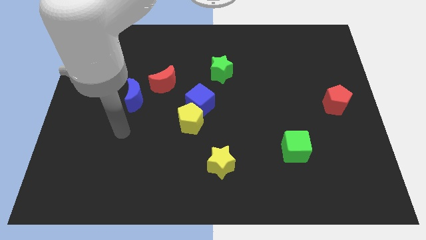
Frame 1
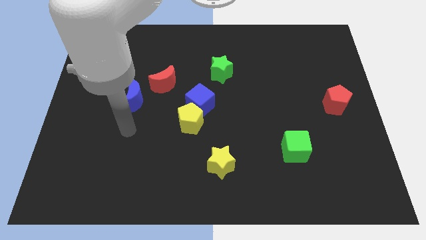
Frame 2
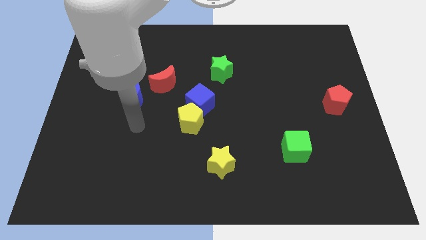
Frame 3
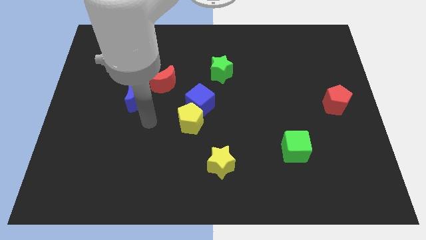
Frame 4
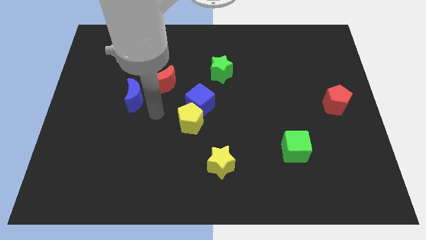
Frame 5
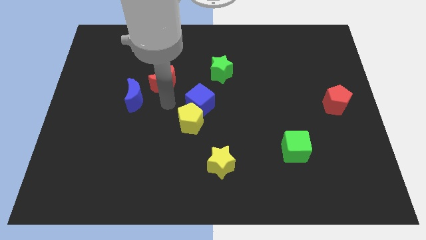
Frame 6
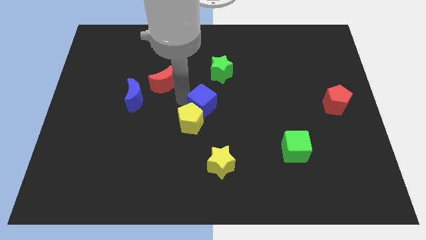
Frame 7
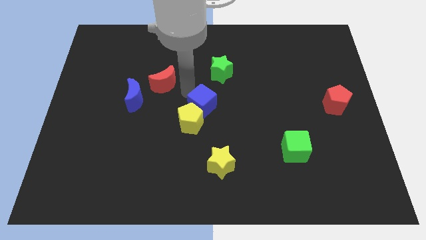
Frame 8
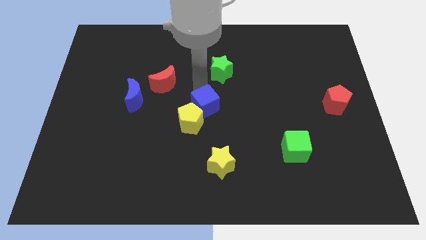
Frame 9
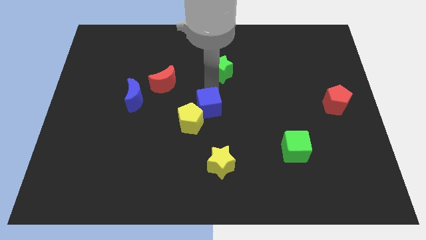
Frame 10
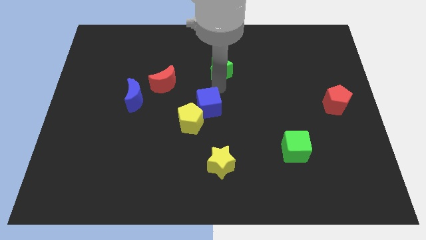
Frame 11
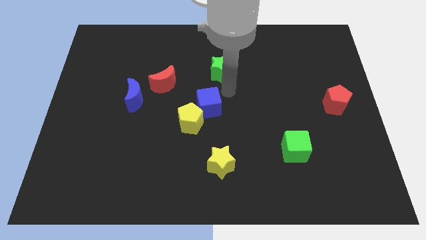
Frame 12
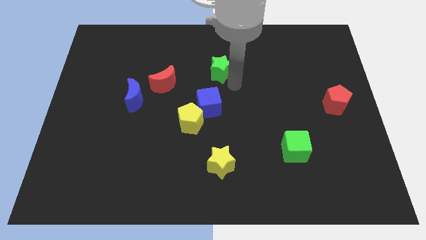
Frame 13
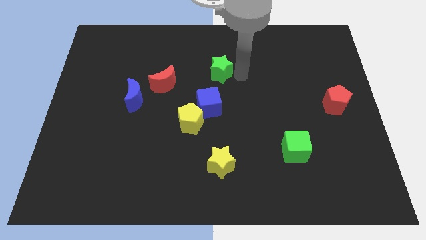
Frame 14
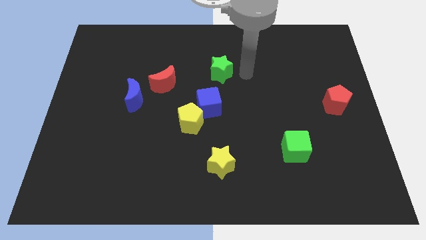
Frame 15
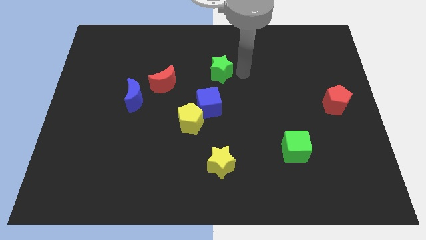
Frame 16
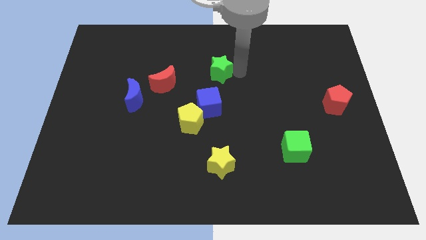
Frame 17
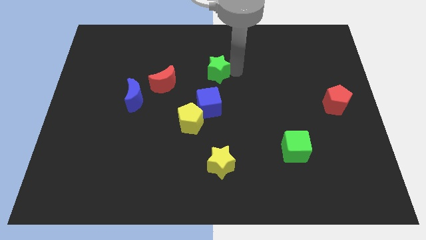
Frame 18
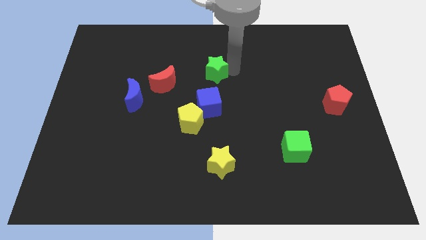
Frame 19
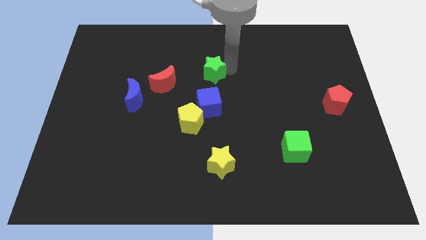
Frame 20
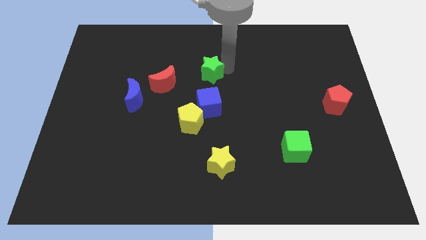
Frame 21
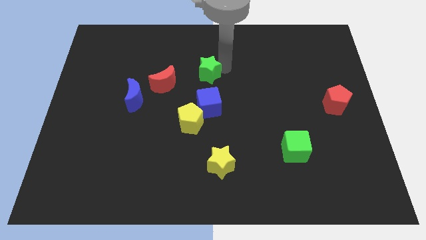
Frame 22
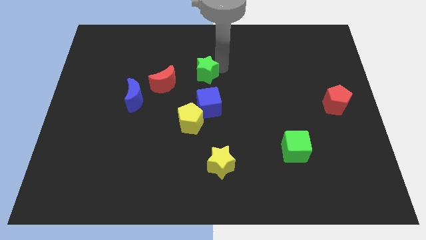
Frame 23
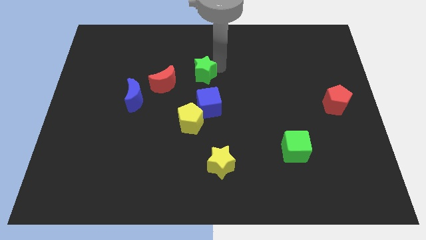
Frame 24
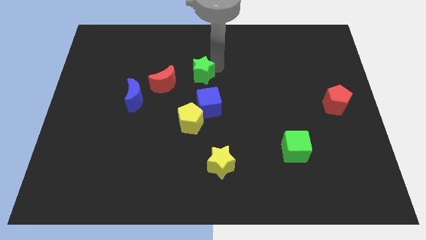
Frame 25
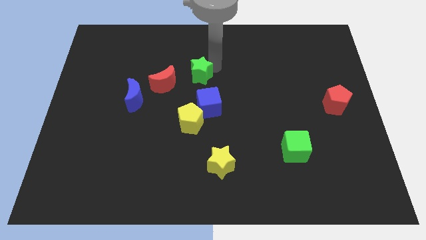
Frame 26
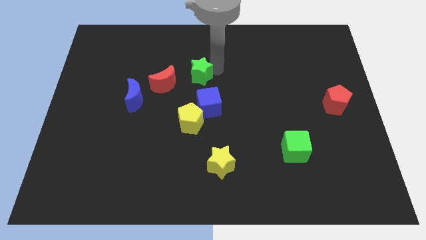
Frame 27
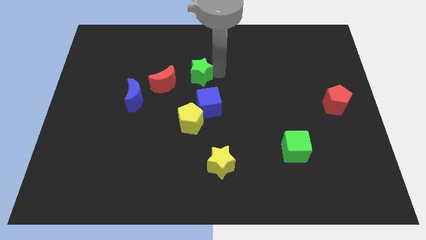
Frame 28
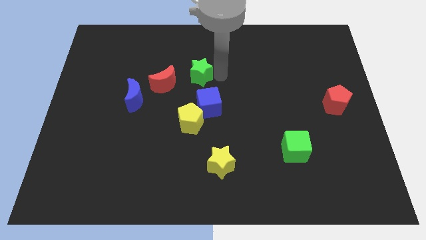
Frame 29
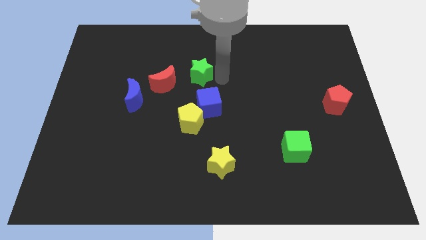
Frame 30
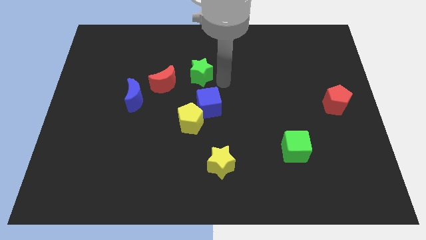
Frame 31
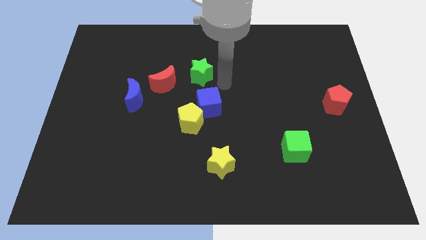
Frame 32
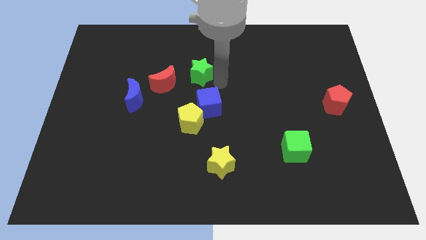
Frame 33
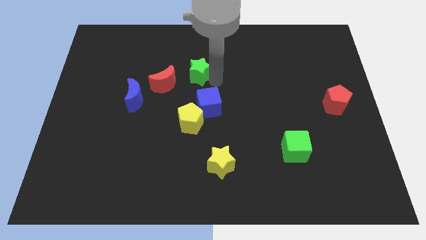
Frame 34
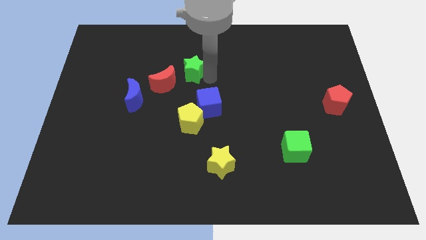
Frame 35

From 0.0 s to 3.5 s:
slightly push the green star to the left

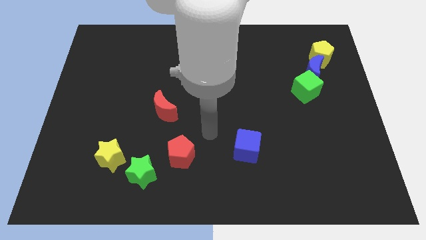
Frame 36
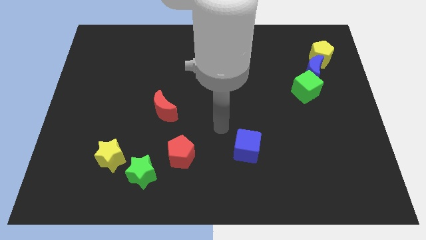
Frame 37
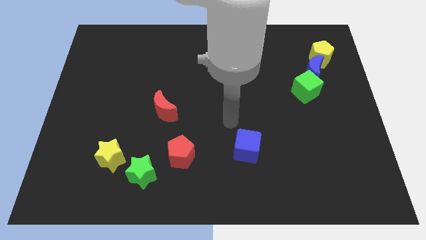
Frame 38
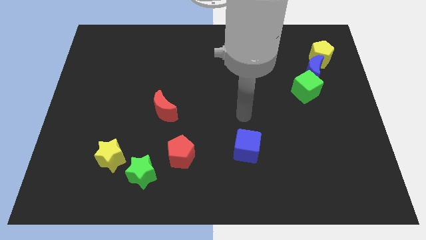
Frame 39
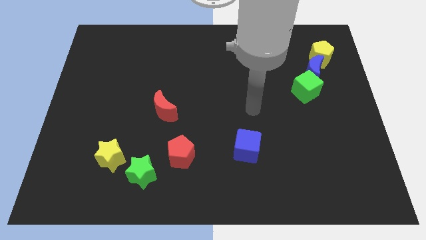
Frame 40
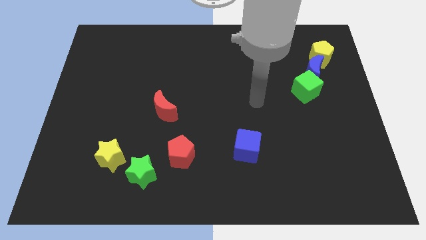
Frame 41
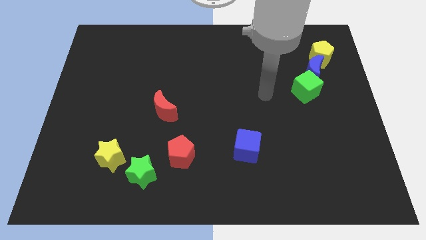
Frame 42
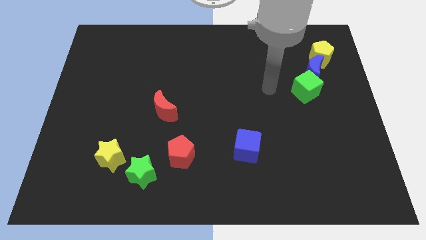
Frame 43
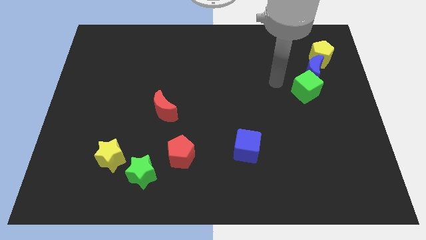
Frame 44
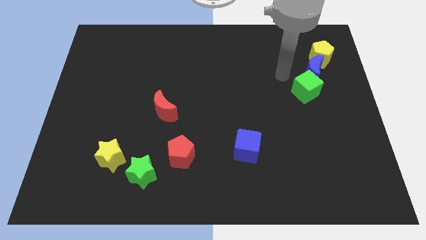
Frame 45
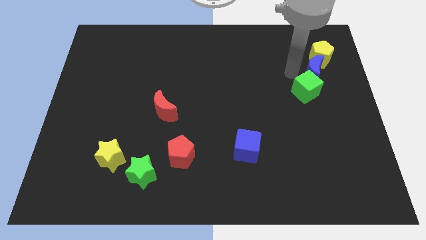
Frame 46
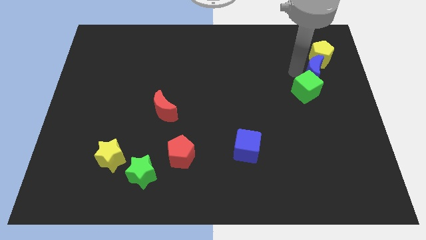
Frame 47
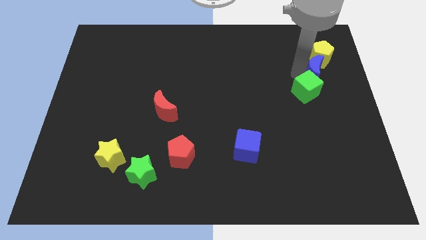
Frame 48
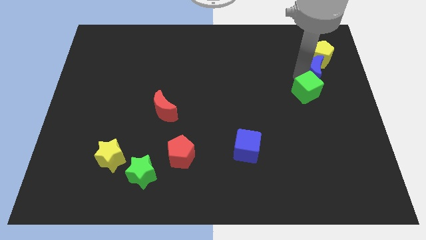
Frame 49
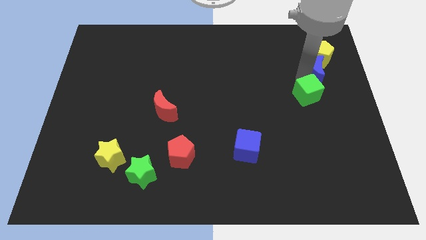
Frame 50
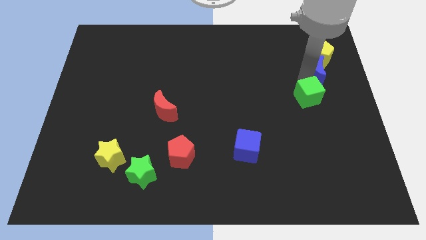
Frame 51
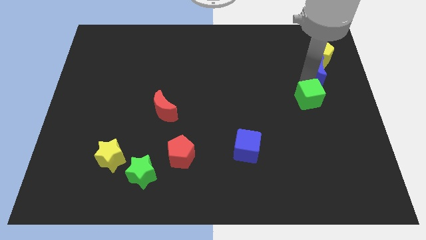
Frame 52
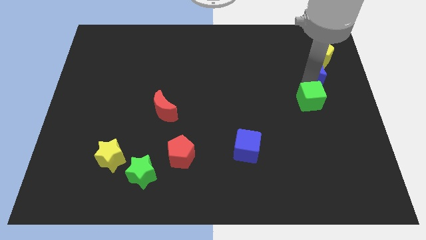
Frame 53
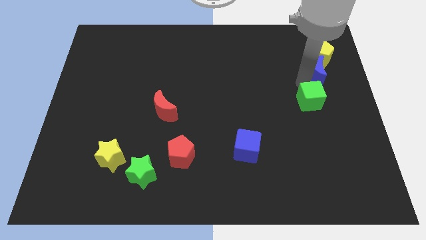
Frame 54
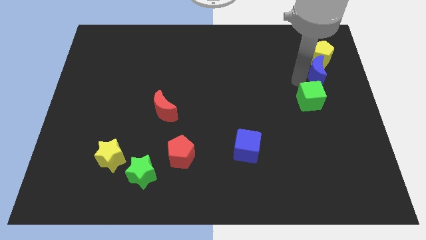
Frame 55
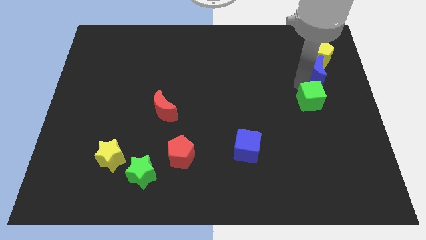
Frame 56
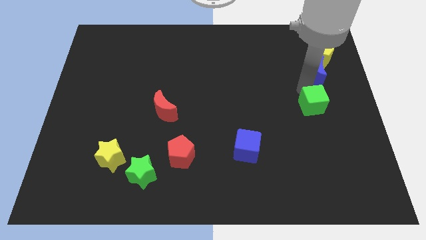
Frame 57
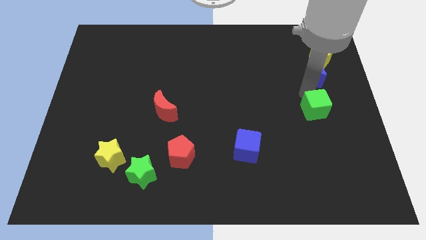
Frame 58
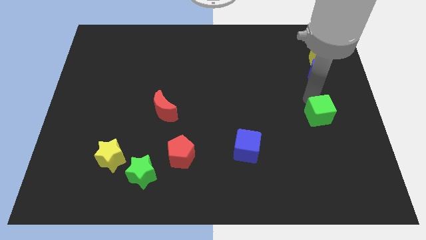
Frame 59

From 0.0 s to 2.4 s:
slightly move the green cube down

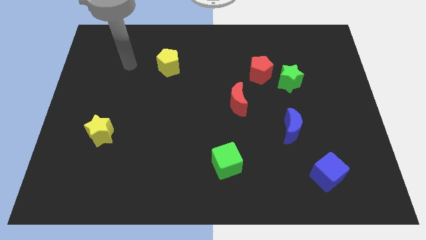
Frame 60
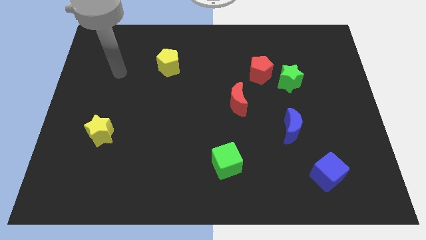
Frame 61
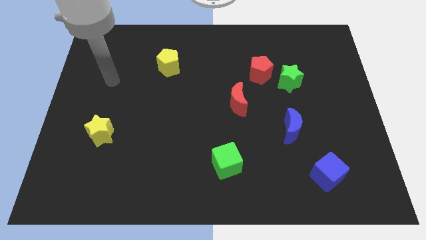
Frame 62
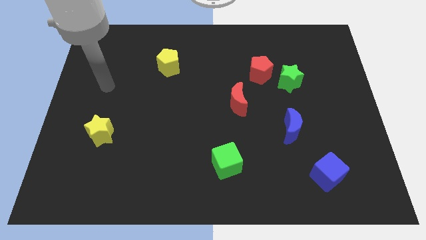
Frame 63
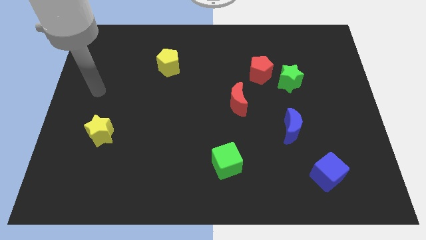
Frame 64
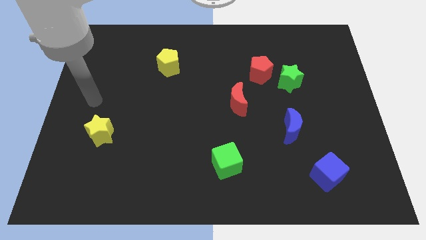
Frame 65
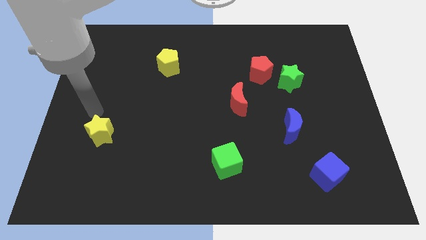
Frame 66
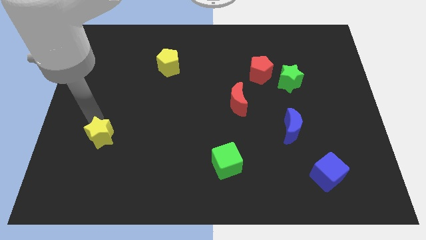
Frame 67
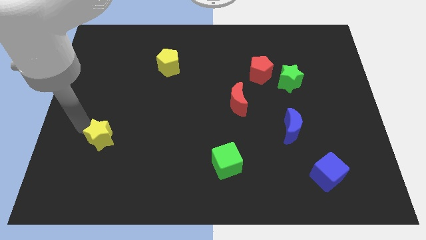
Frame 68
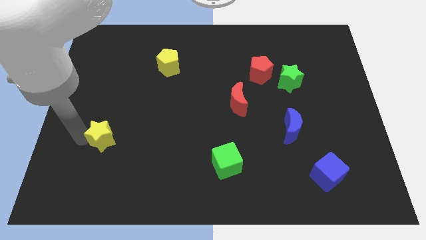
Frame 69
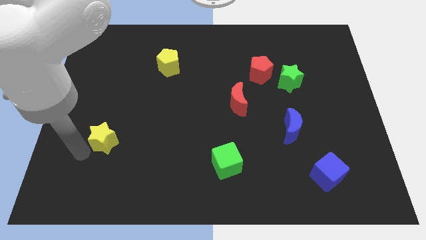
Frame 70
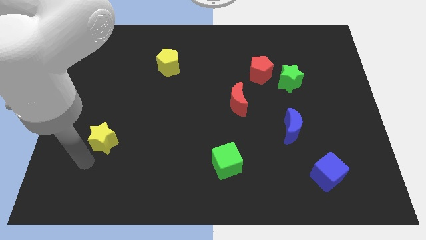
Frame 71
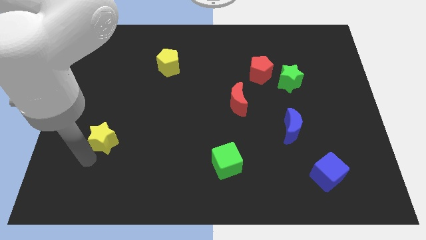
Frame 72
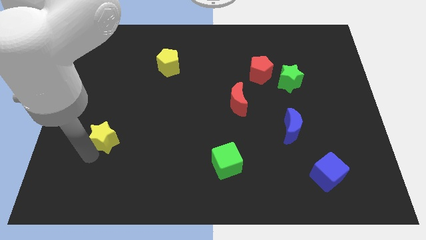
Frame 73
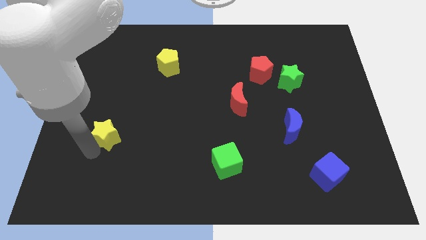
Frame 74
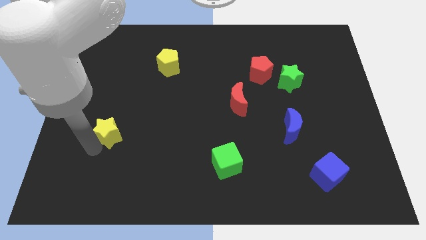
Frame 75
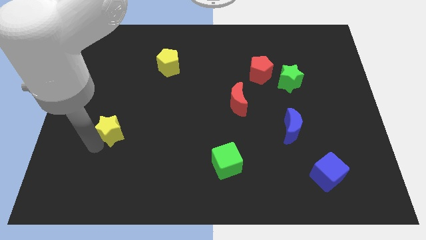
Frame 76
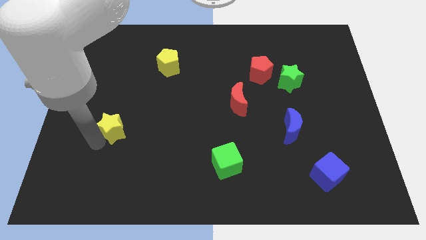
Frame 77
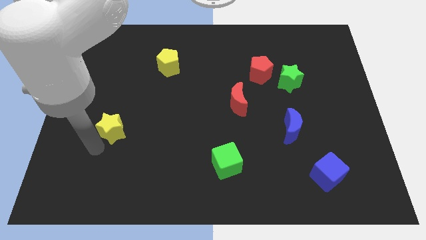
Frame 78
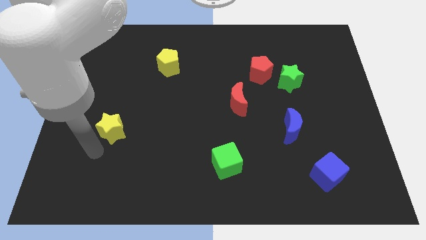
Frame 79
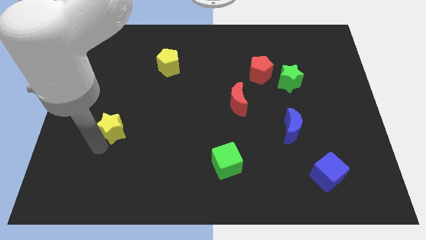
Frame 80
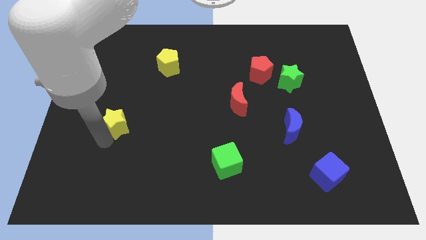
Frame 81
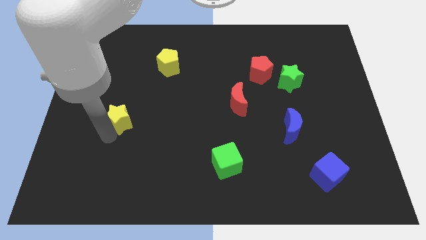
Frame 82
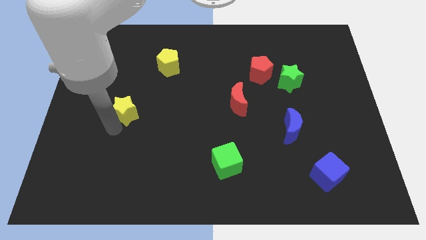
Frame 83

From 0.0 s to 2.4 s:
slightly move the yellow star diagonally upwards and to the right
